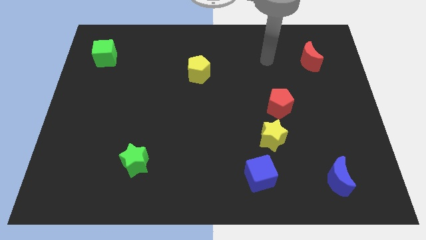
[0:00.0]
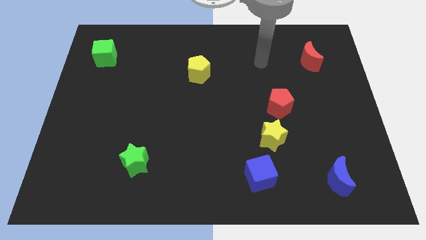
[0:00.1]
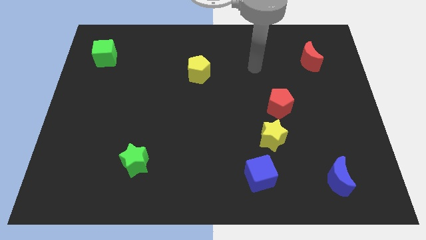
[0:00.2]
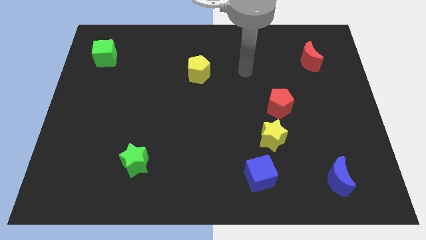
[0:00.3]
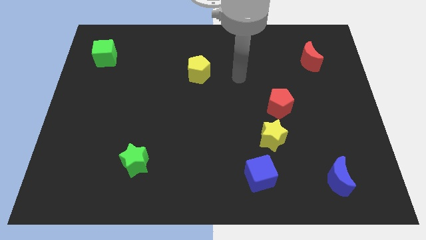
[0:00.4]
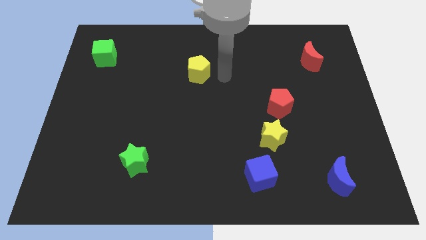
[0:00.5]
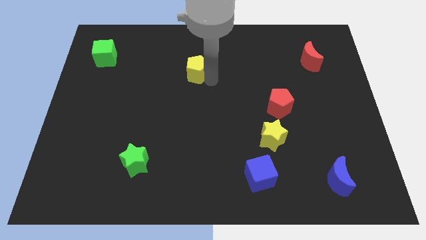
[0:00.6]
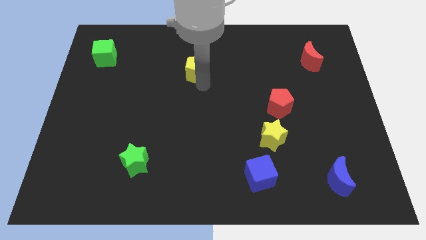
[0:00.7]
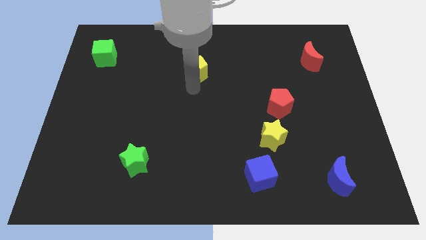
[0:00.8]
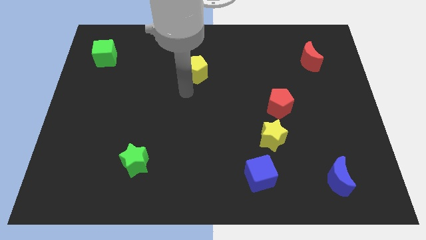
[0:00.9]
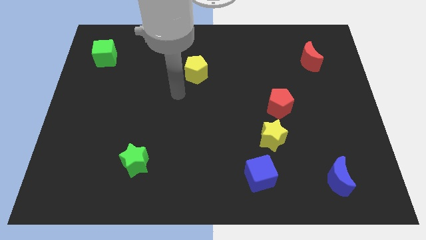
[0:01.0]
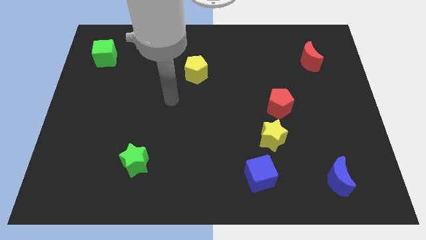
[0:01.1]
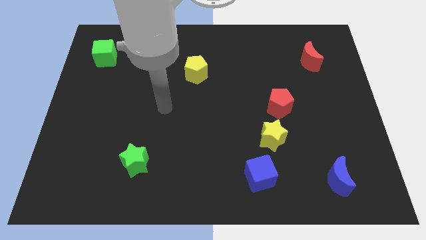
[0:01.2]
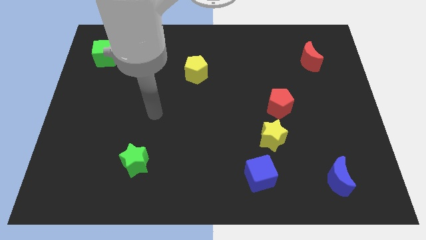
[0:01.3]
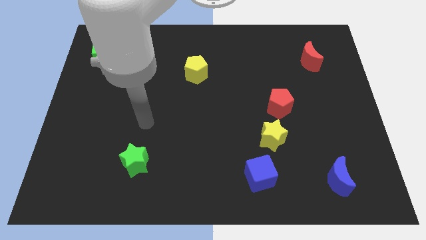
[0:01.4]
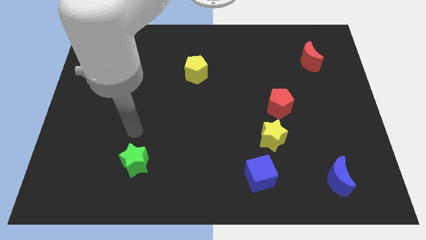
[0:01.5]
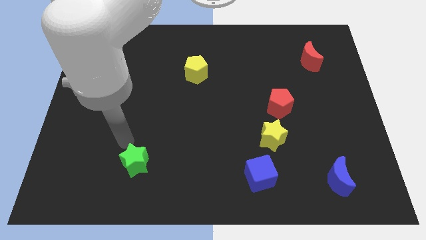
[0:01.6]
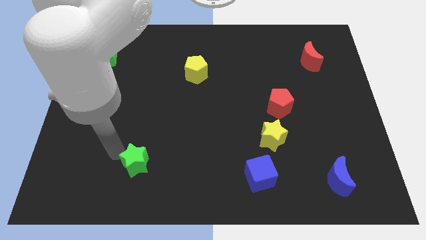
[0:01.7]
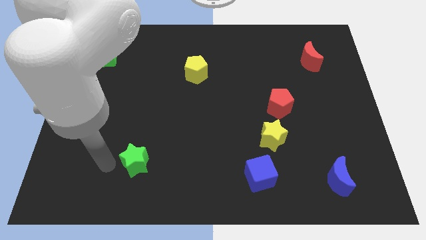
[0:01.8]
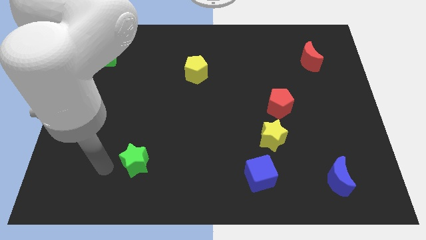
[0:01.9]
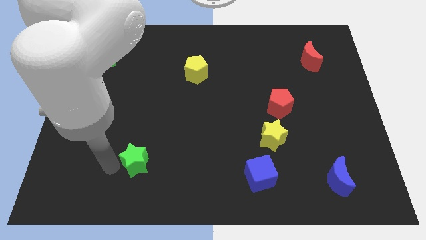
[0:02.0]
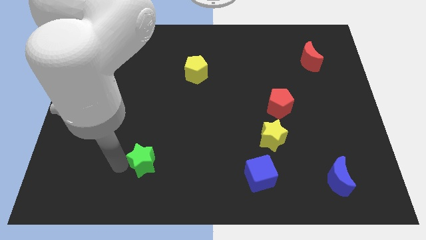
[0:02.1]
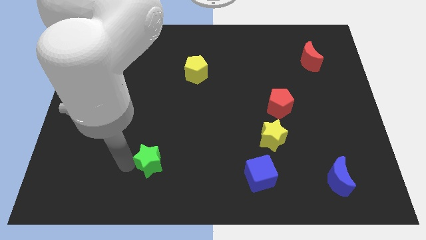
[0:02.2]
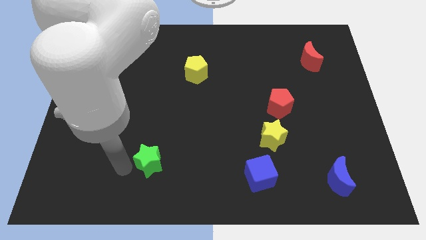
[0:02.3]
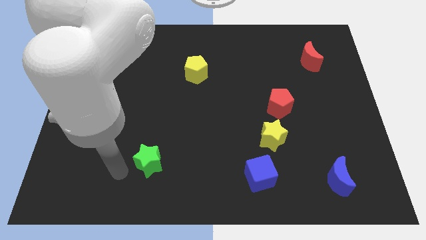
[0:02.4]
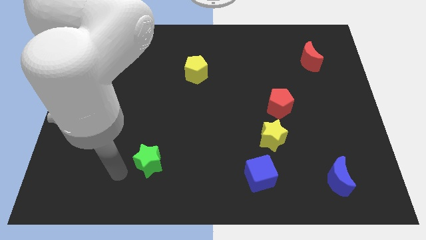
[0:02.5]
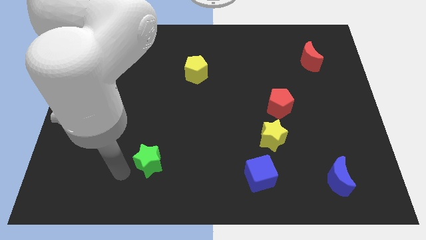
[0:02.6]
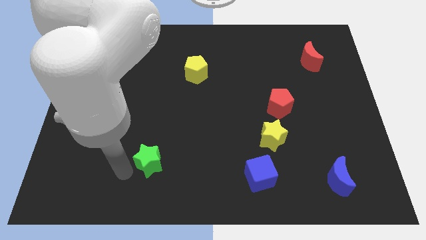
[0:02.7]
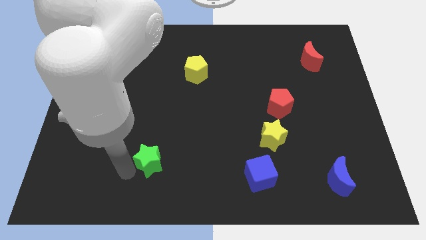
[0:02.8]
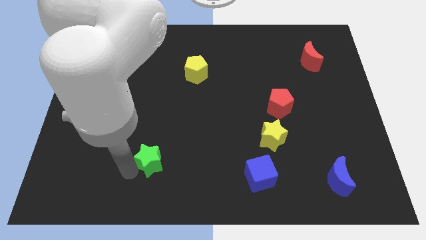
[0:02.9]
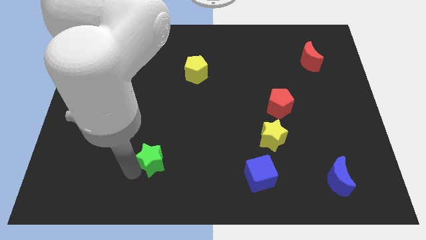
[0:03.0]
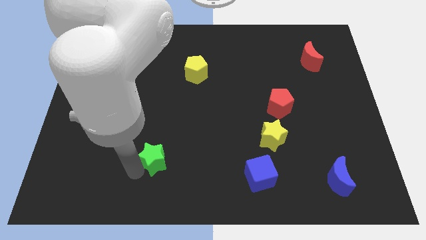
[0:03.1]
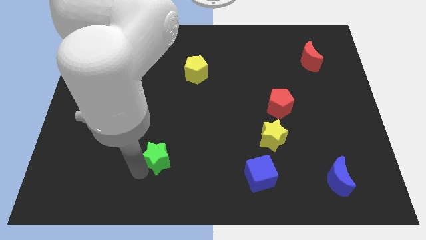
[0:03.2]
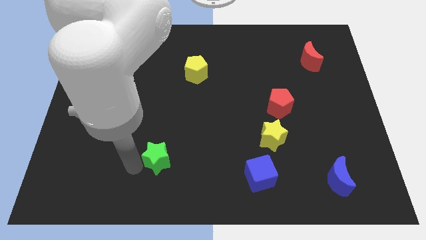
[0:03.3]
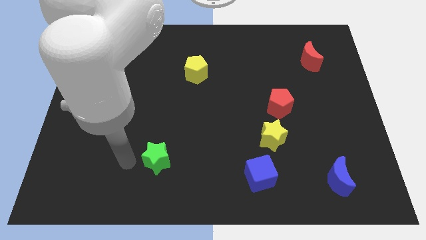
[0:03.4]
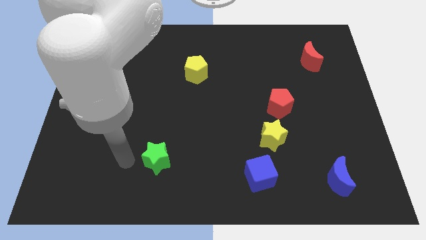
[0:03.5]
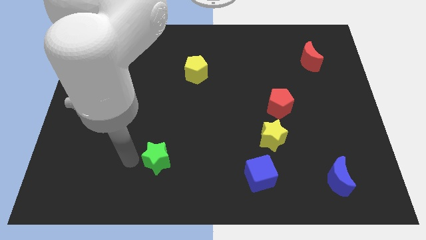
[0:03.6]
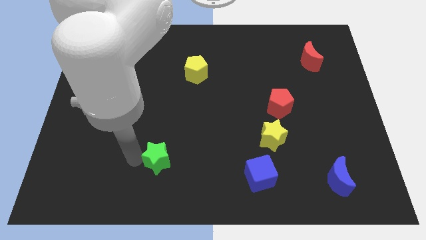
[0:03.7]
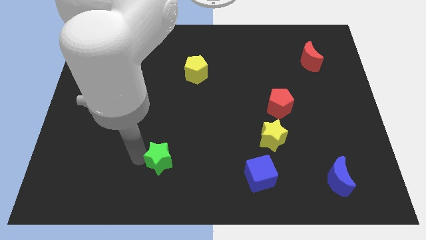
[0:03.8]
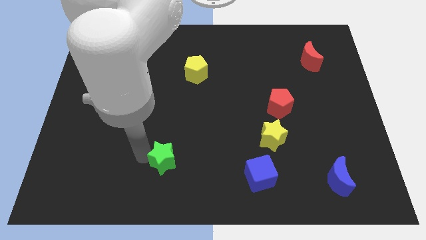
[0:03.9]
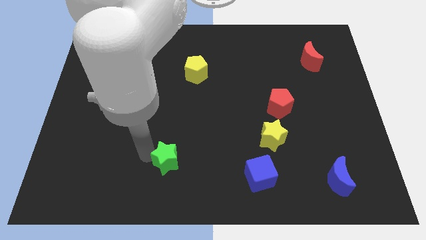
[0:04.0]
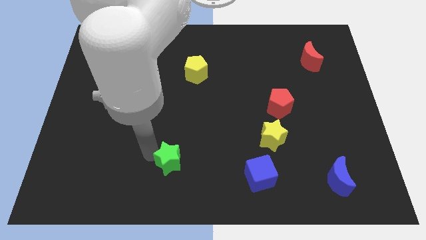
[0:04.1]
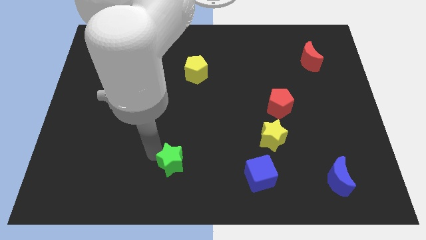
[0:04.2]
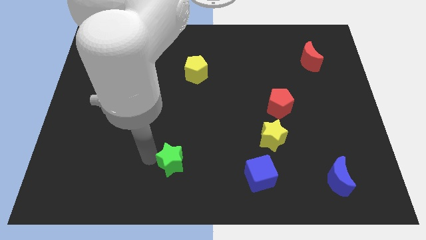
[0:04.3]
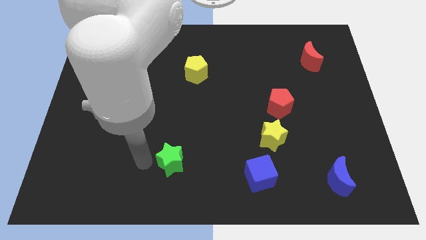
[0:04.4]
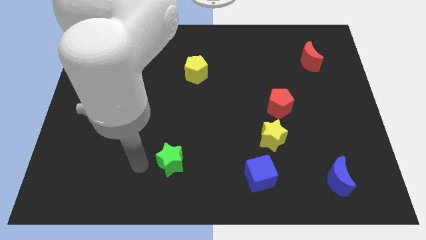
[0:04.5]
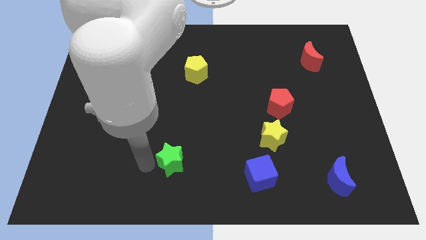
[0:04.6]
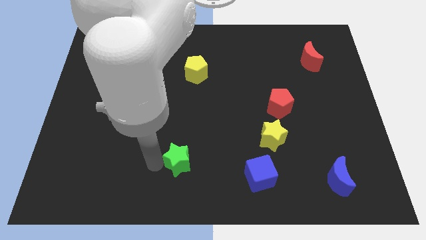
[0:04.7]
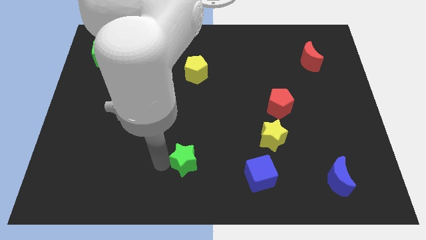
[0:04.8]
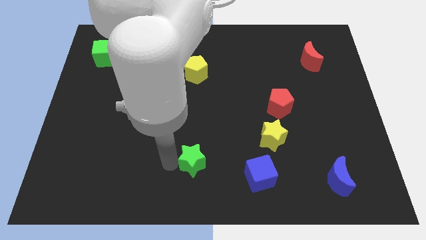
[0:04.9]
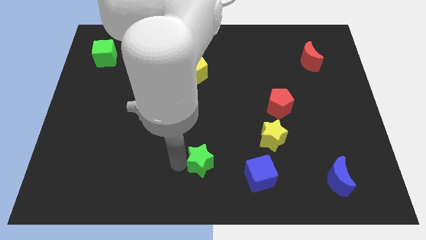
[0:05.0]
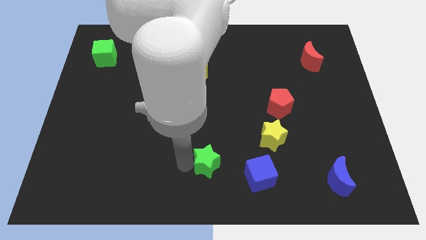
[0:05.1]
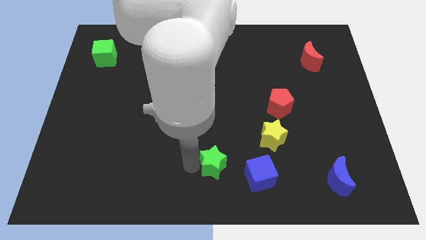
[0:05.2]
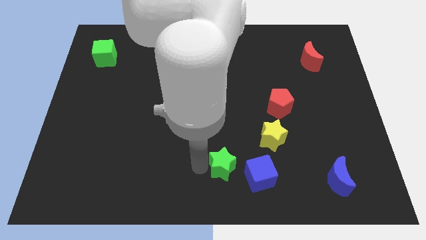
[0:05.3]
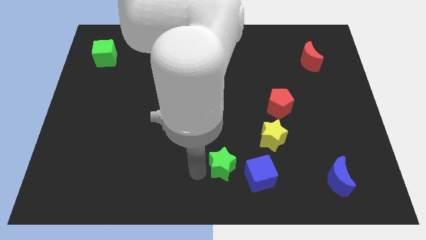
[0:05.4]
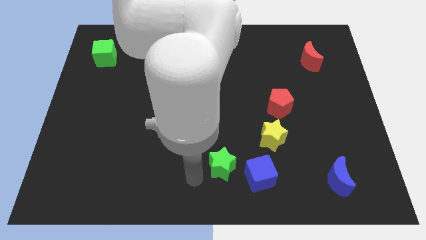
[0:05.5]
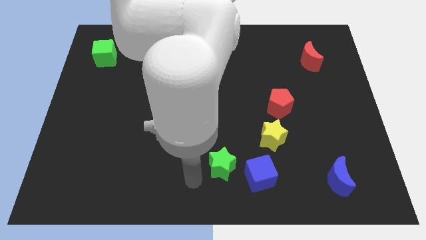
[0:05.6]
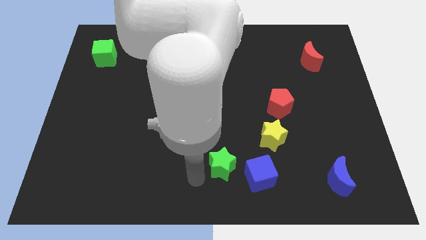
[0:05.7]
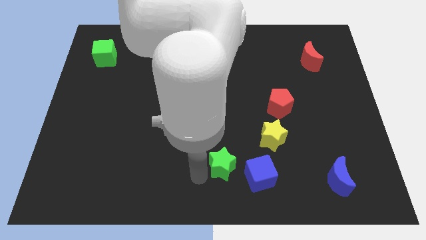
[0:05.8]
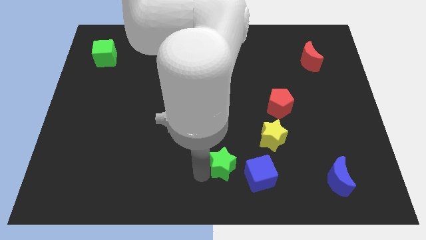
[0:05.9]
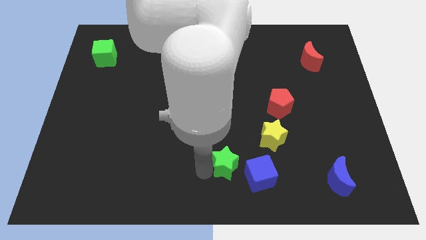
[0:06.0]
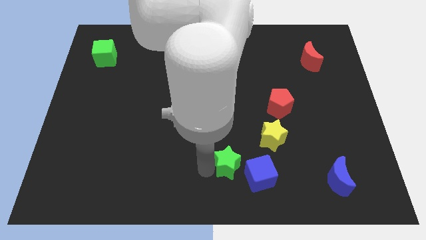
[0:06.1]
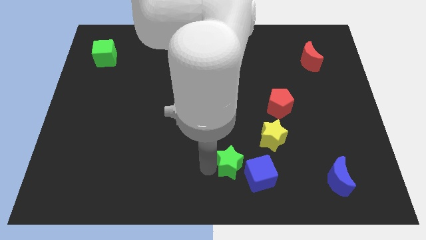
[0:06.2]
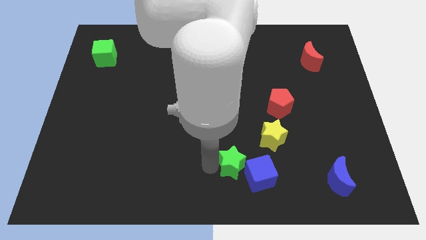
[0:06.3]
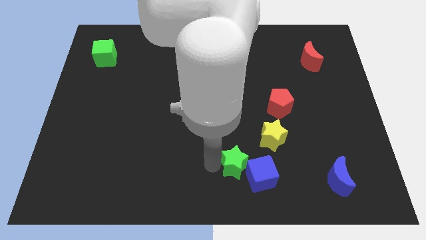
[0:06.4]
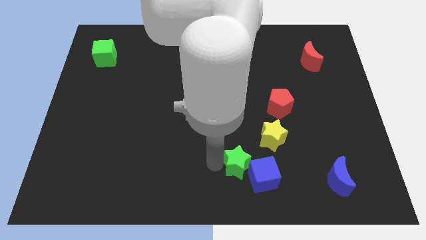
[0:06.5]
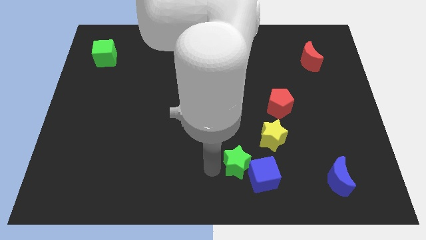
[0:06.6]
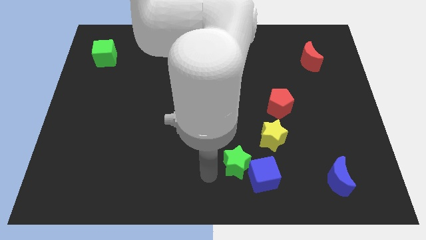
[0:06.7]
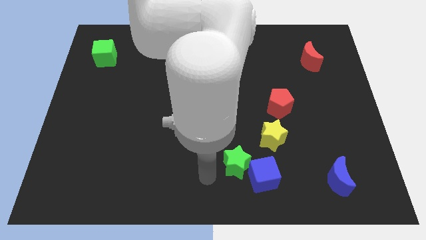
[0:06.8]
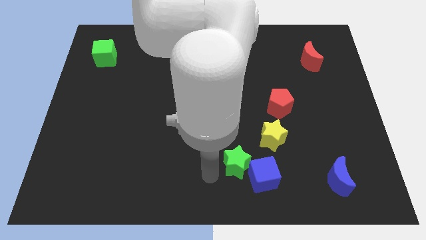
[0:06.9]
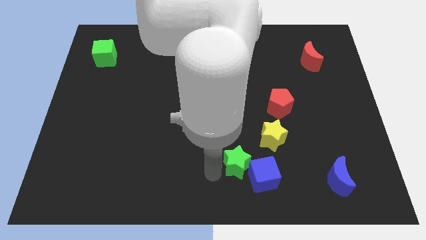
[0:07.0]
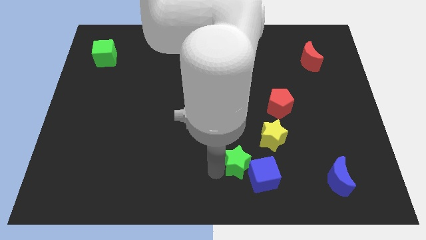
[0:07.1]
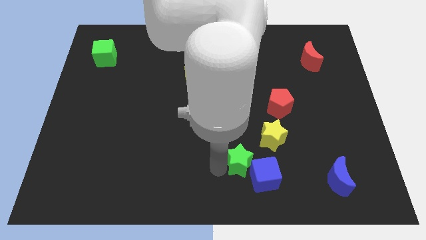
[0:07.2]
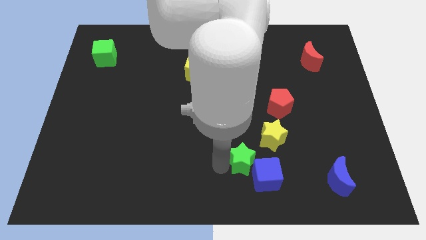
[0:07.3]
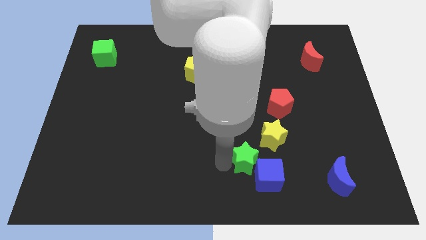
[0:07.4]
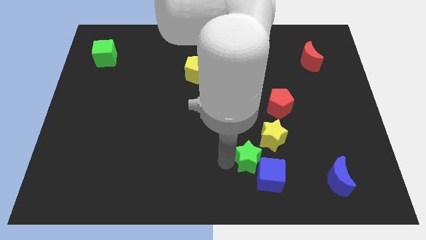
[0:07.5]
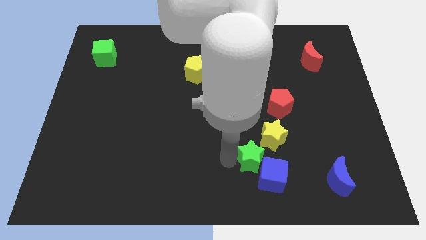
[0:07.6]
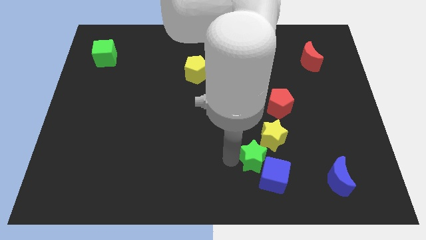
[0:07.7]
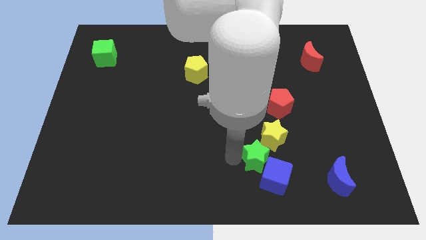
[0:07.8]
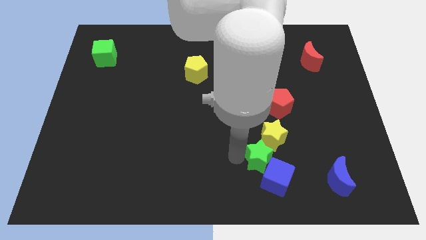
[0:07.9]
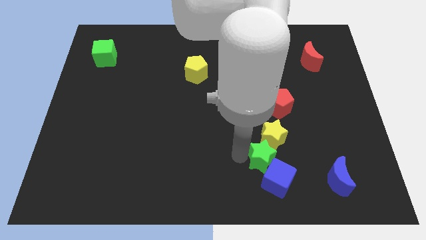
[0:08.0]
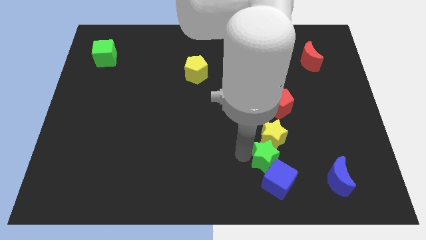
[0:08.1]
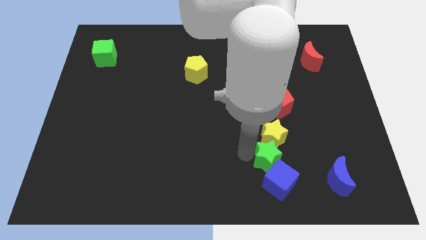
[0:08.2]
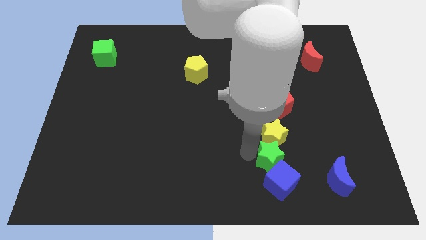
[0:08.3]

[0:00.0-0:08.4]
push the green star to the bottom of the red pentagon
